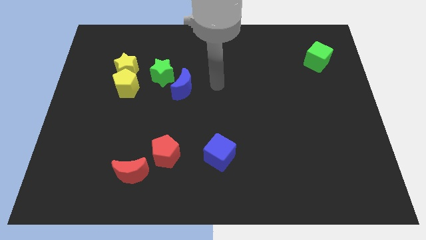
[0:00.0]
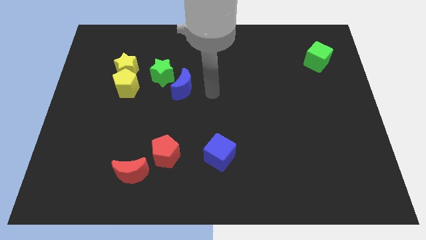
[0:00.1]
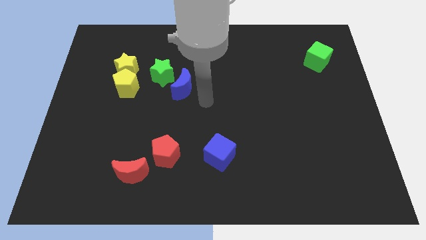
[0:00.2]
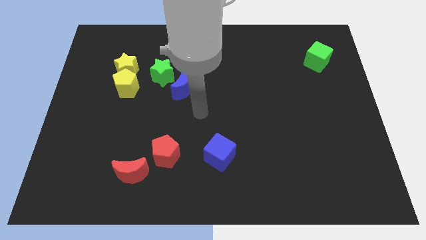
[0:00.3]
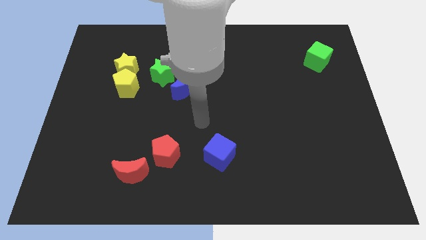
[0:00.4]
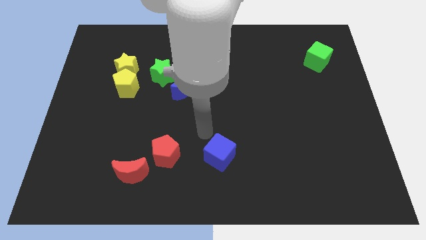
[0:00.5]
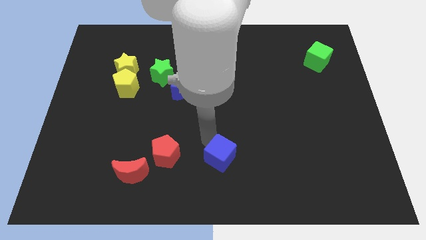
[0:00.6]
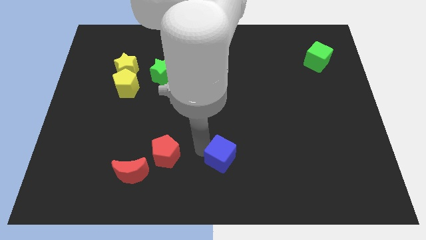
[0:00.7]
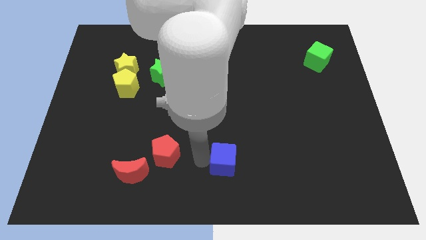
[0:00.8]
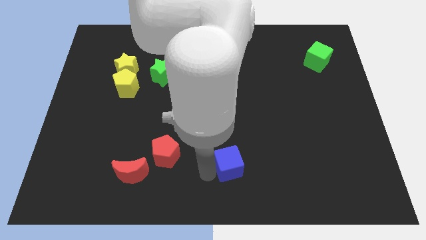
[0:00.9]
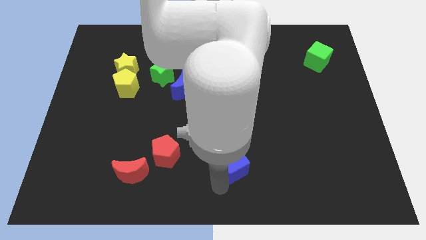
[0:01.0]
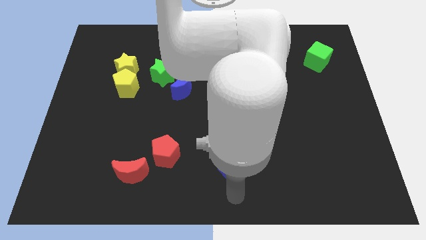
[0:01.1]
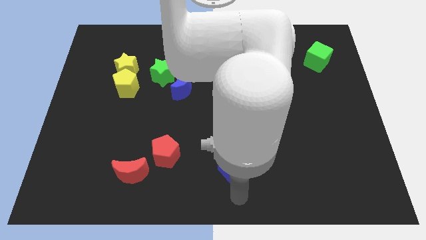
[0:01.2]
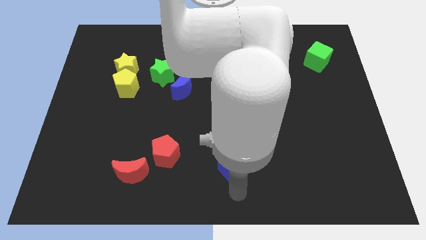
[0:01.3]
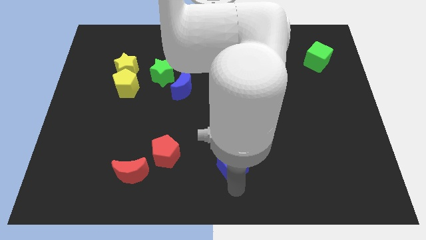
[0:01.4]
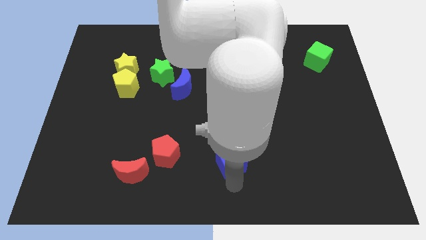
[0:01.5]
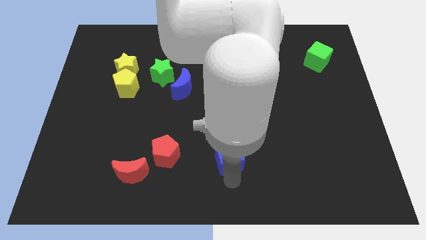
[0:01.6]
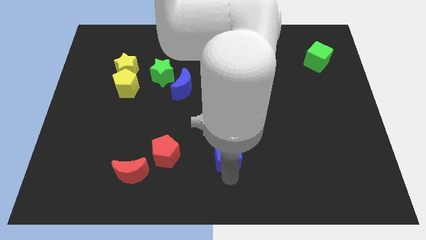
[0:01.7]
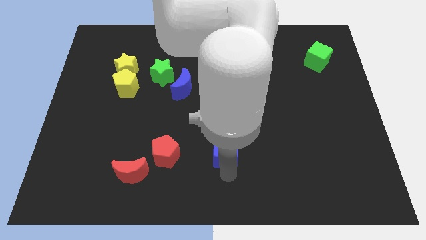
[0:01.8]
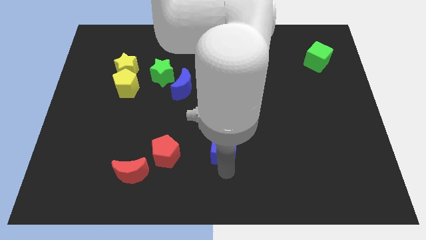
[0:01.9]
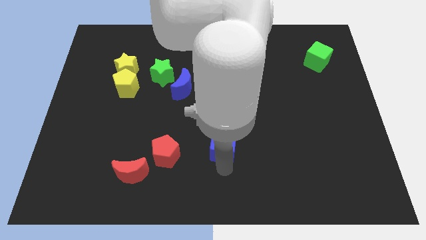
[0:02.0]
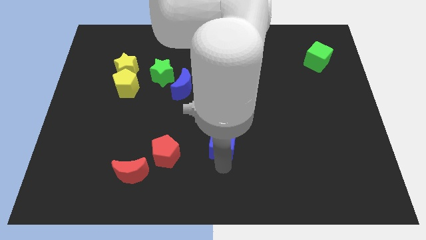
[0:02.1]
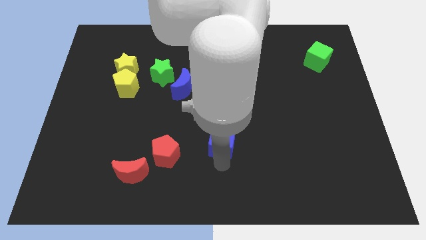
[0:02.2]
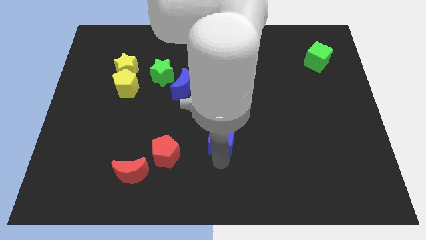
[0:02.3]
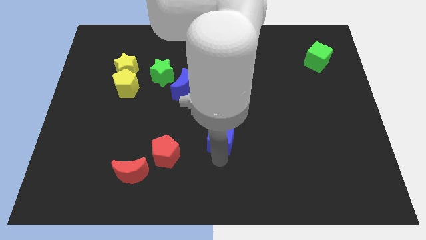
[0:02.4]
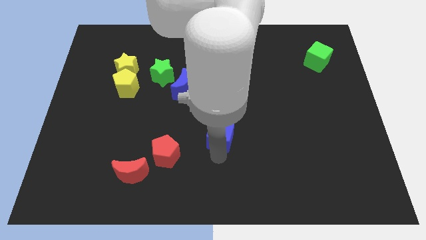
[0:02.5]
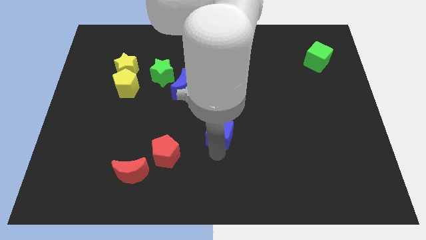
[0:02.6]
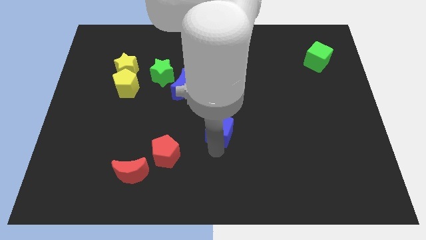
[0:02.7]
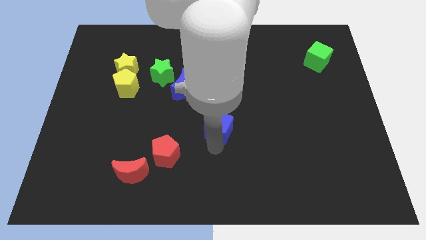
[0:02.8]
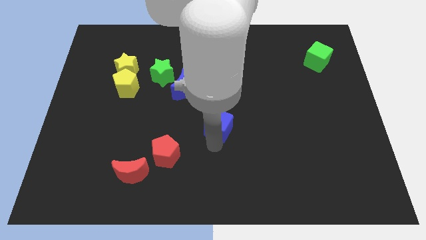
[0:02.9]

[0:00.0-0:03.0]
push the blue cube up slightly

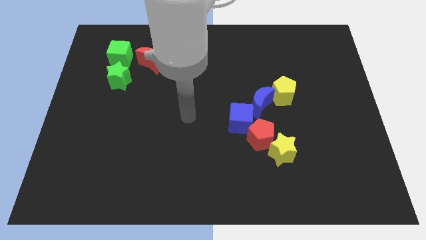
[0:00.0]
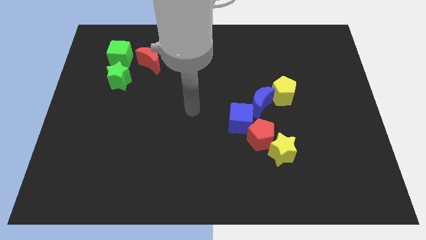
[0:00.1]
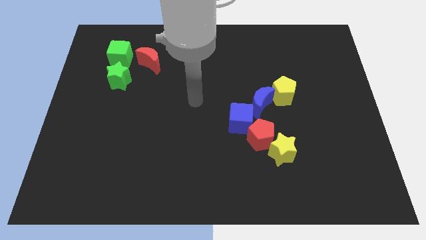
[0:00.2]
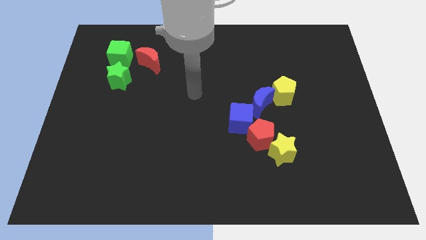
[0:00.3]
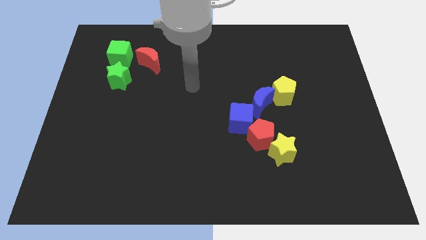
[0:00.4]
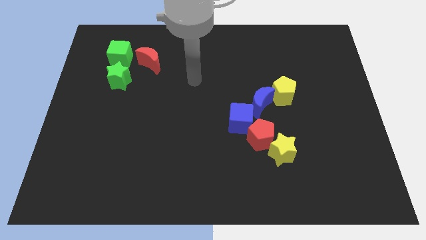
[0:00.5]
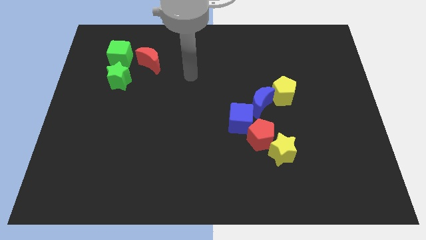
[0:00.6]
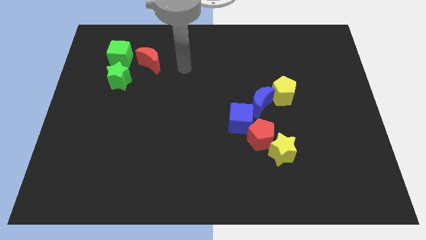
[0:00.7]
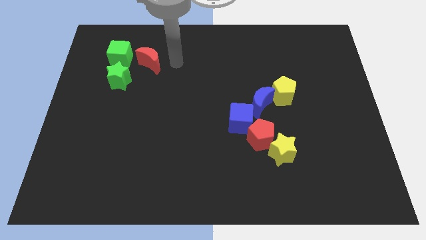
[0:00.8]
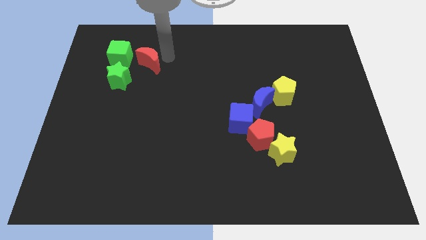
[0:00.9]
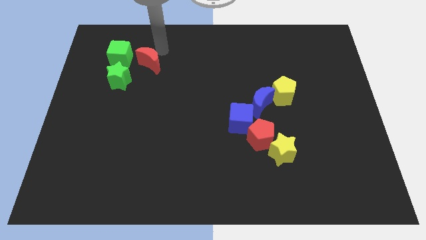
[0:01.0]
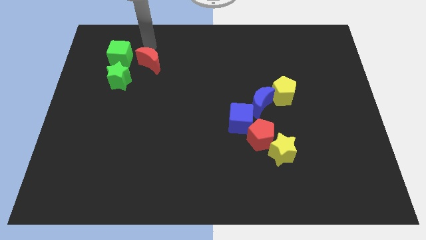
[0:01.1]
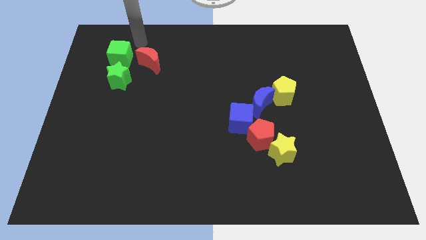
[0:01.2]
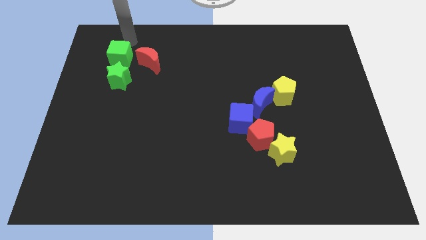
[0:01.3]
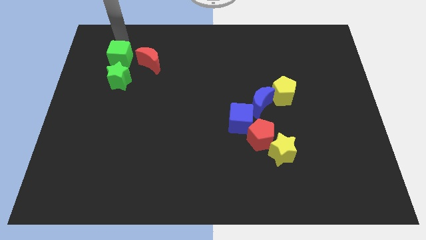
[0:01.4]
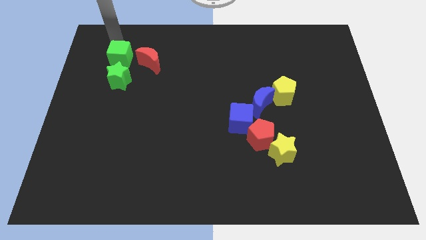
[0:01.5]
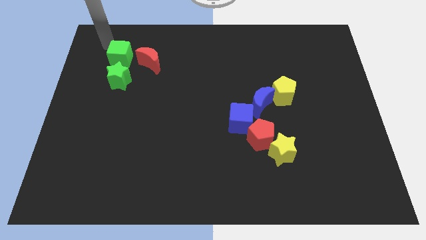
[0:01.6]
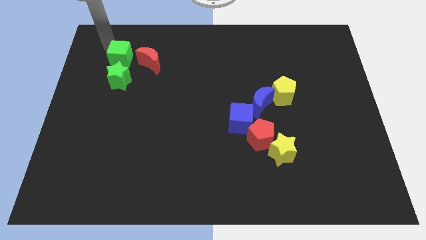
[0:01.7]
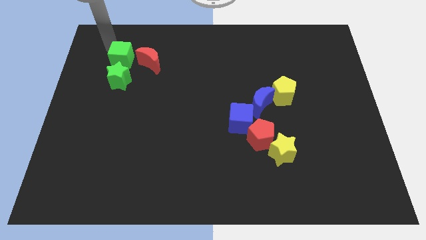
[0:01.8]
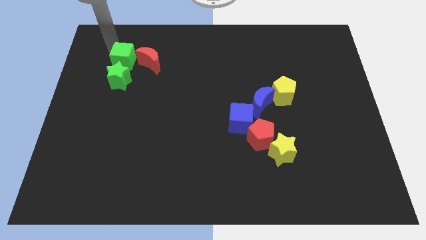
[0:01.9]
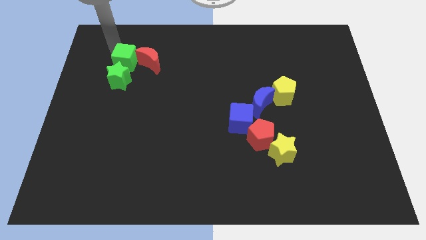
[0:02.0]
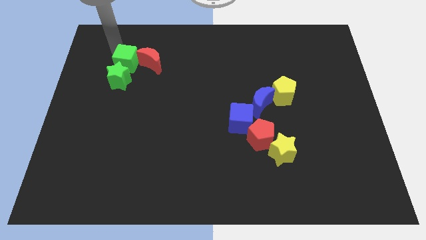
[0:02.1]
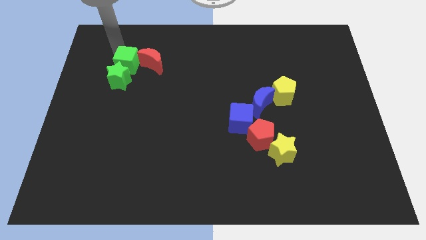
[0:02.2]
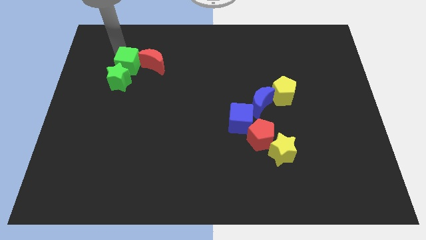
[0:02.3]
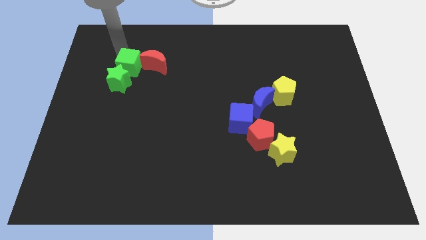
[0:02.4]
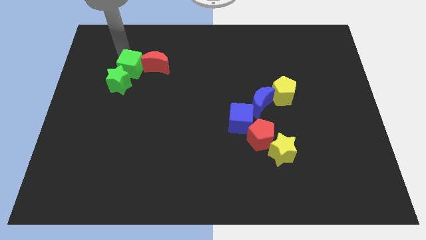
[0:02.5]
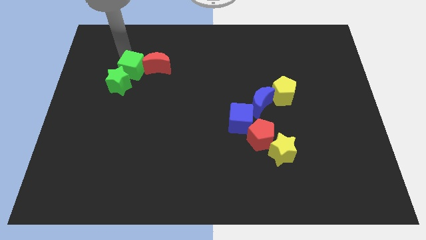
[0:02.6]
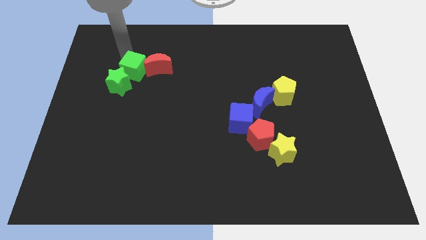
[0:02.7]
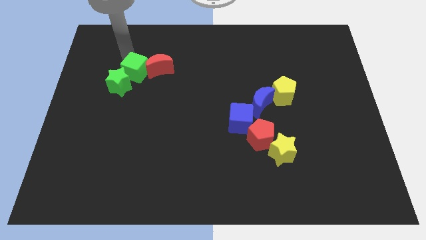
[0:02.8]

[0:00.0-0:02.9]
move the green cube down and then to the right slightly

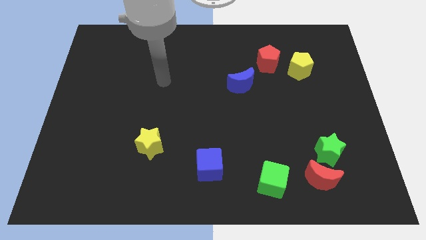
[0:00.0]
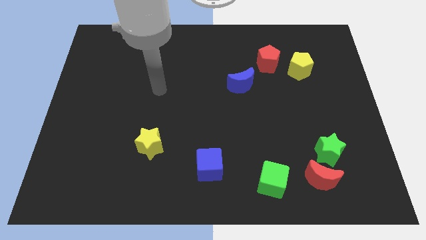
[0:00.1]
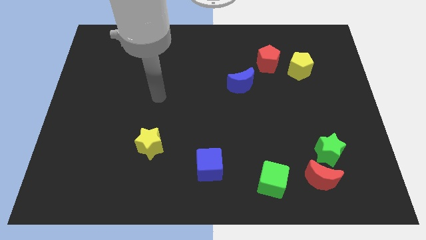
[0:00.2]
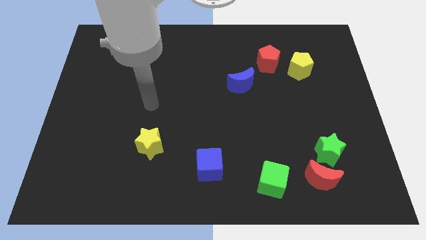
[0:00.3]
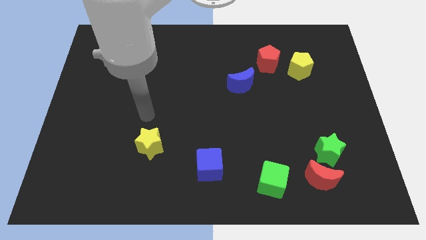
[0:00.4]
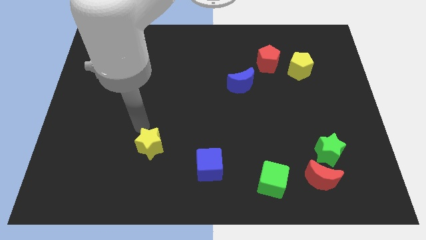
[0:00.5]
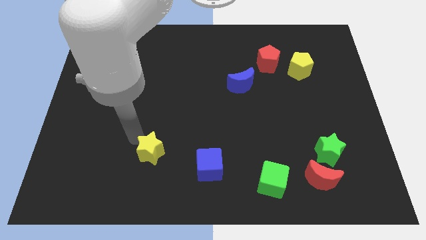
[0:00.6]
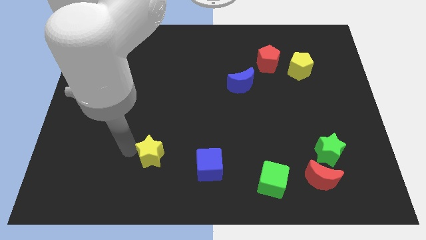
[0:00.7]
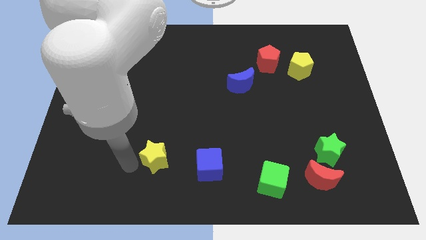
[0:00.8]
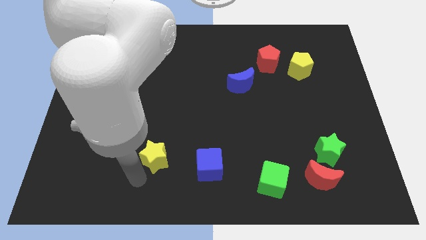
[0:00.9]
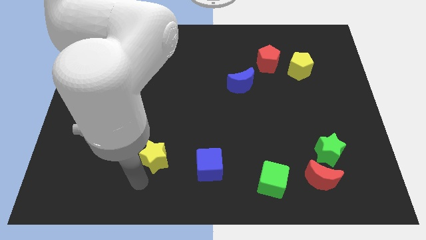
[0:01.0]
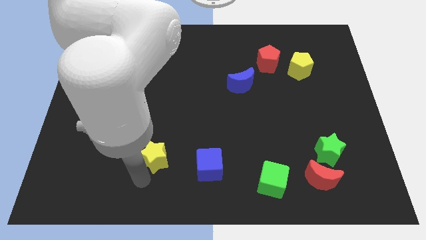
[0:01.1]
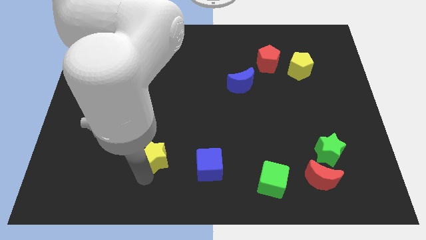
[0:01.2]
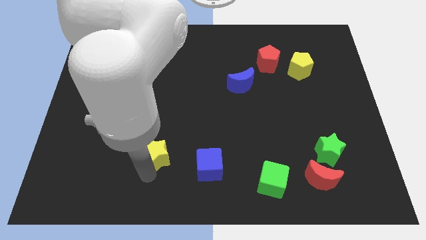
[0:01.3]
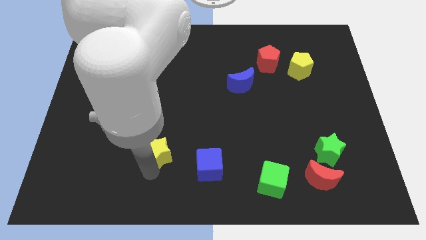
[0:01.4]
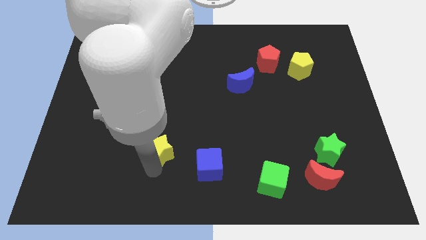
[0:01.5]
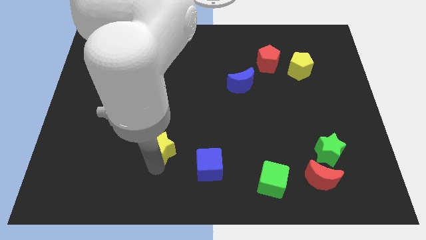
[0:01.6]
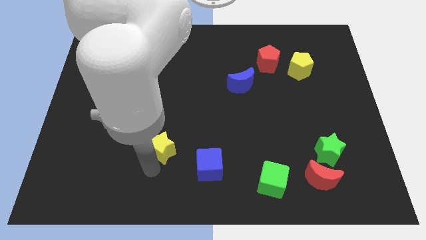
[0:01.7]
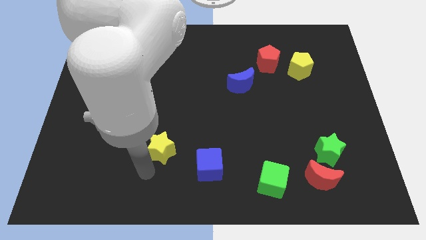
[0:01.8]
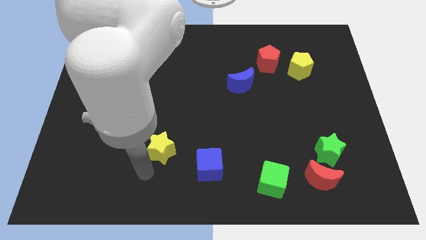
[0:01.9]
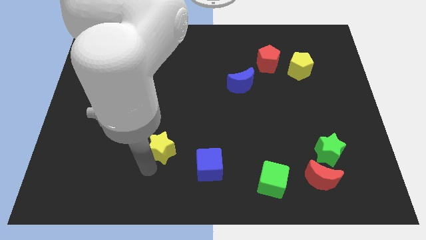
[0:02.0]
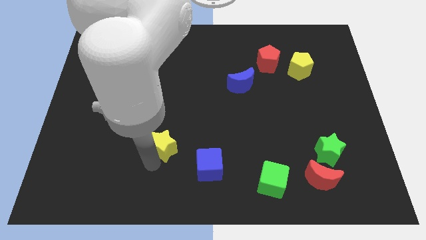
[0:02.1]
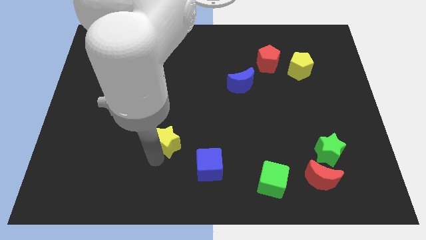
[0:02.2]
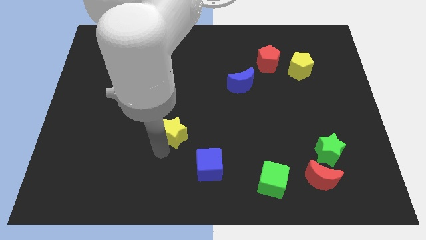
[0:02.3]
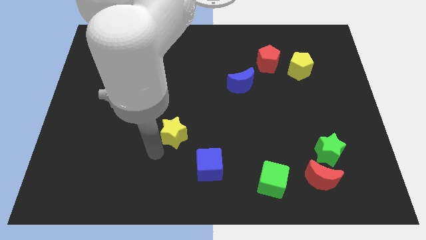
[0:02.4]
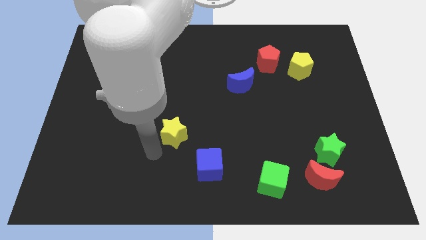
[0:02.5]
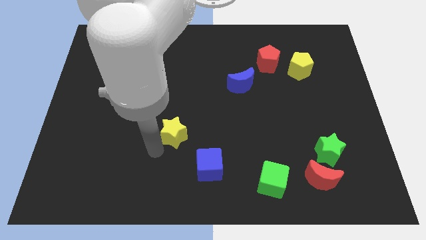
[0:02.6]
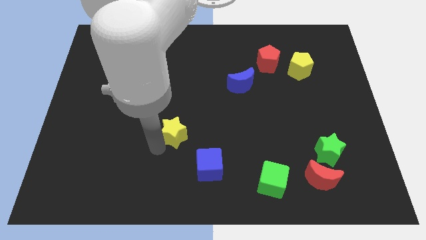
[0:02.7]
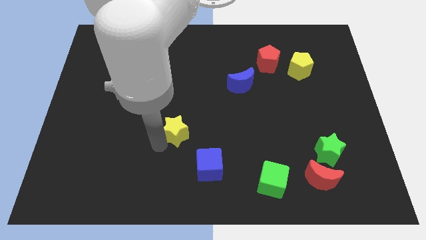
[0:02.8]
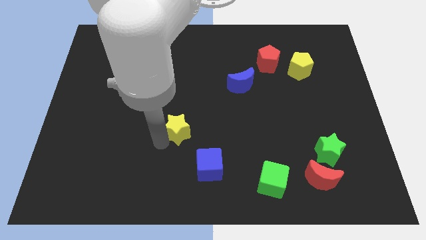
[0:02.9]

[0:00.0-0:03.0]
push the yellow star slightly up and to the right
